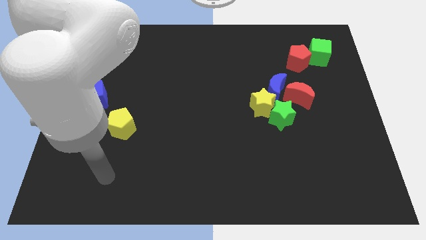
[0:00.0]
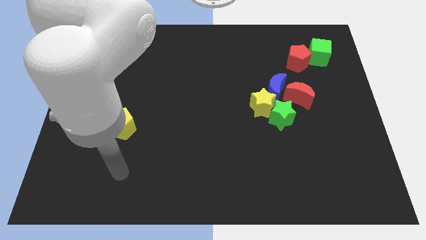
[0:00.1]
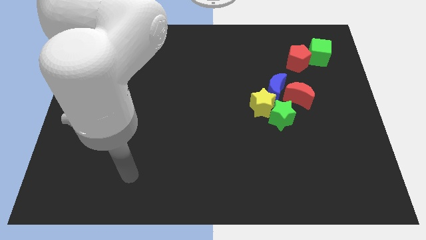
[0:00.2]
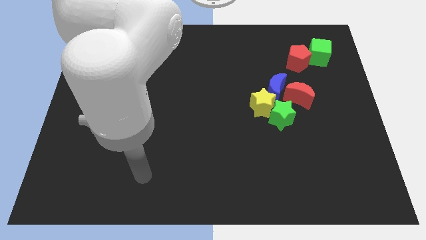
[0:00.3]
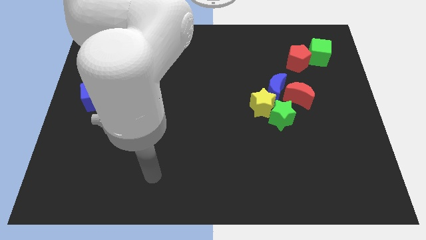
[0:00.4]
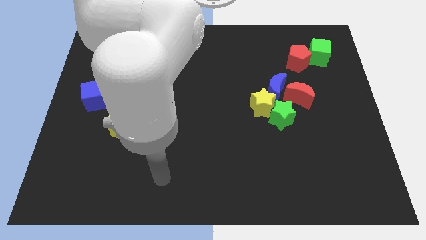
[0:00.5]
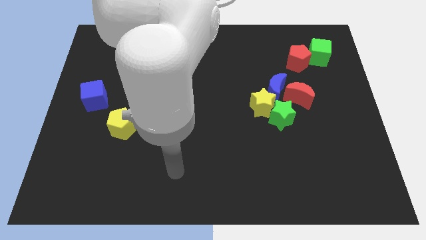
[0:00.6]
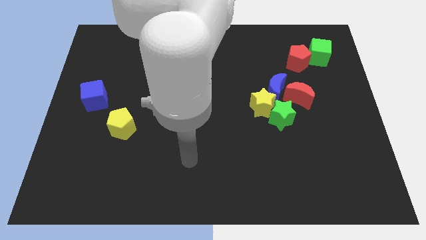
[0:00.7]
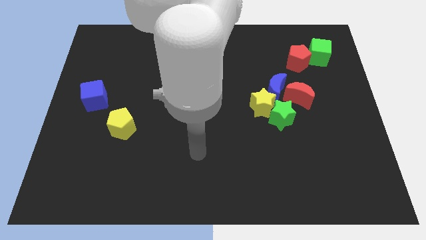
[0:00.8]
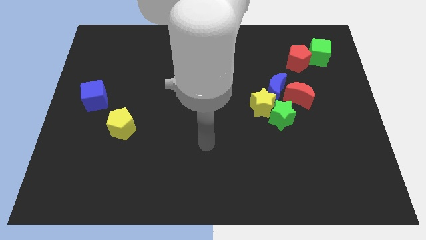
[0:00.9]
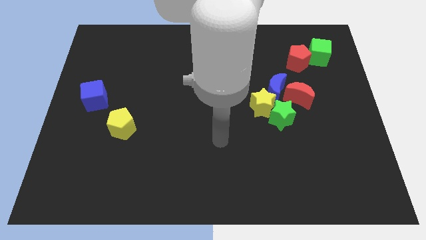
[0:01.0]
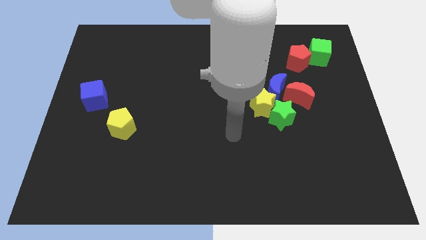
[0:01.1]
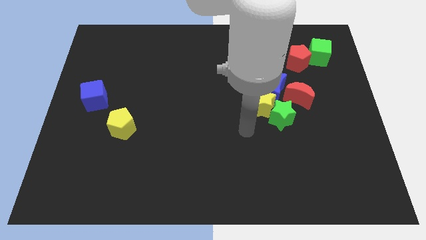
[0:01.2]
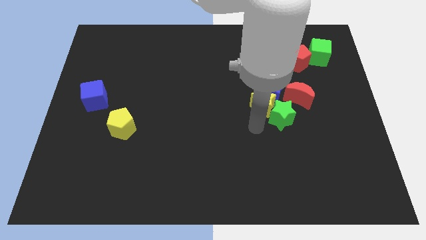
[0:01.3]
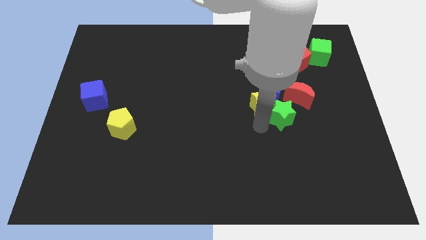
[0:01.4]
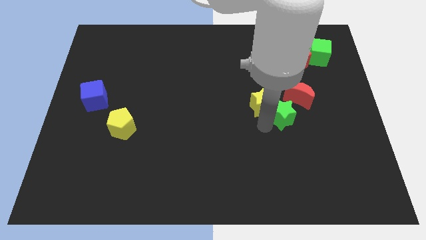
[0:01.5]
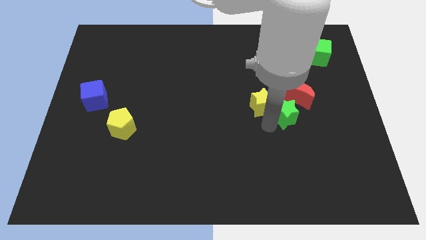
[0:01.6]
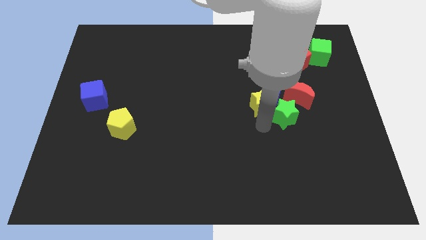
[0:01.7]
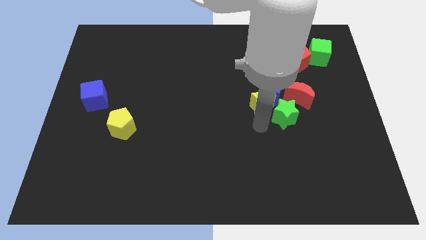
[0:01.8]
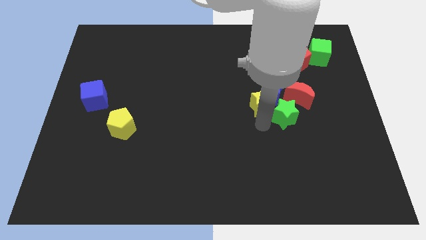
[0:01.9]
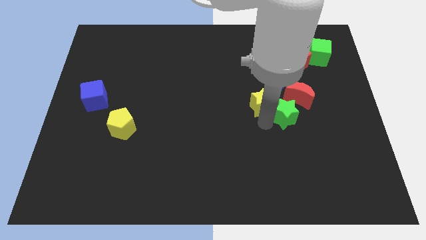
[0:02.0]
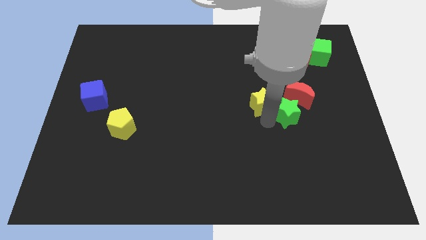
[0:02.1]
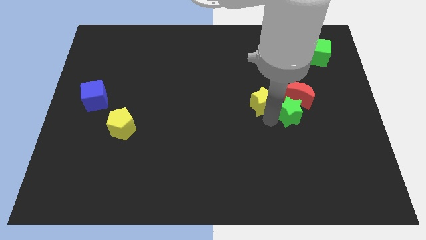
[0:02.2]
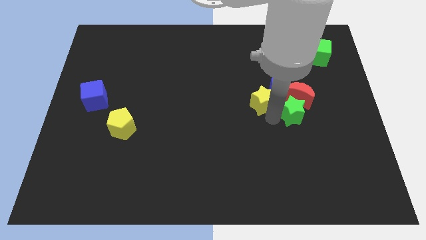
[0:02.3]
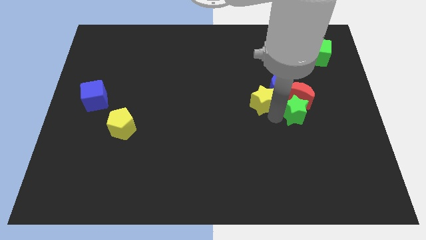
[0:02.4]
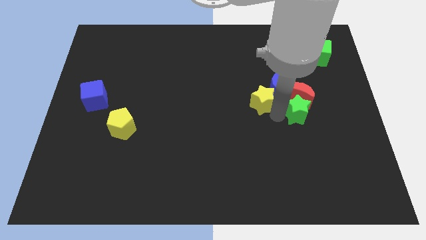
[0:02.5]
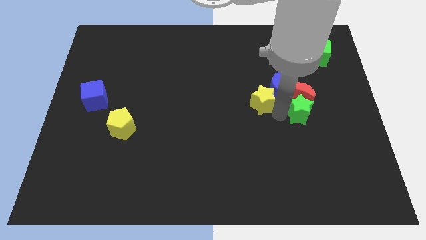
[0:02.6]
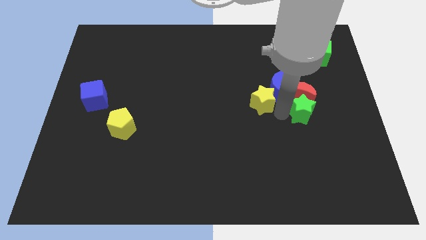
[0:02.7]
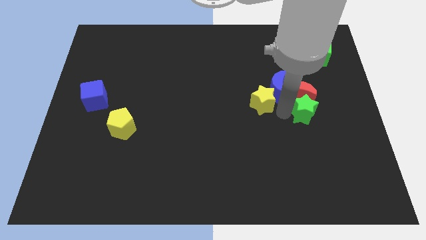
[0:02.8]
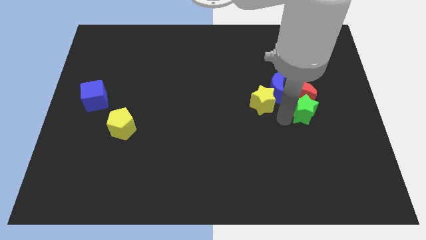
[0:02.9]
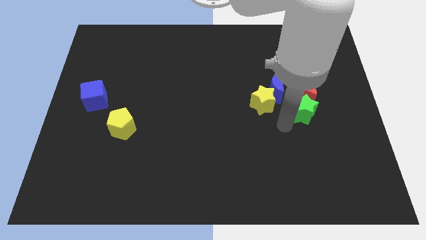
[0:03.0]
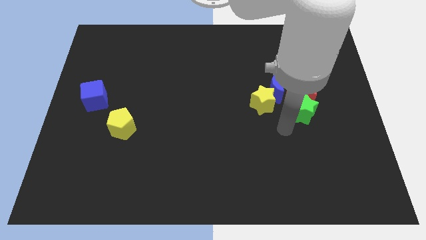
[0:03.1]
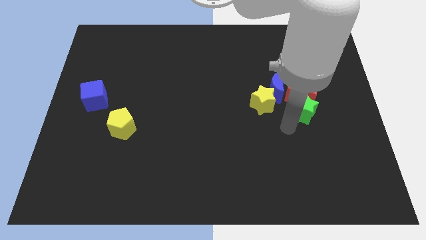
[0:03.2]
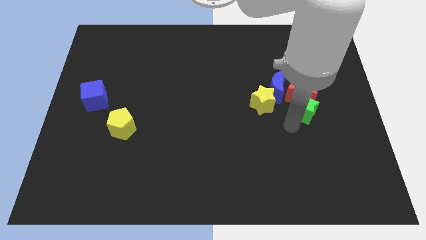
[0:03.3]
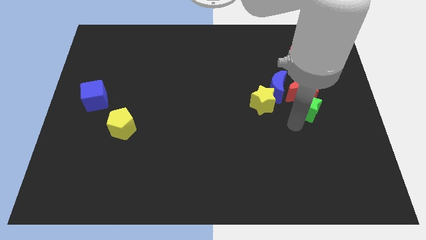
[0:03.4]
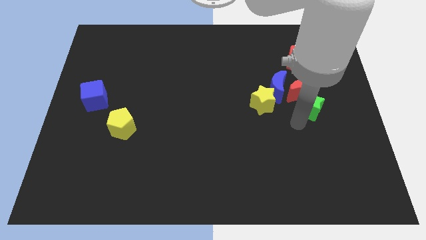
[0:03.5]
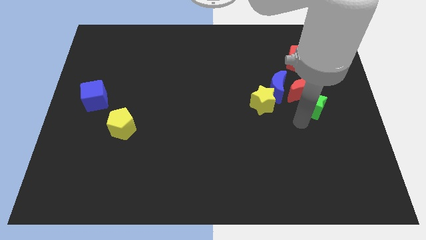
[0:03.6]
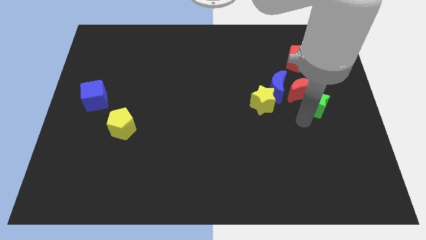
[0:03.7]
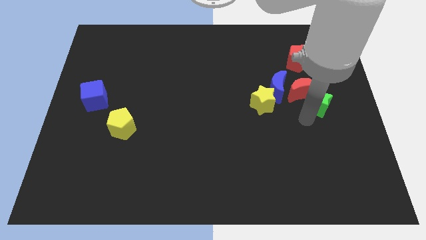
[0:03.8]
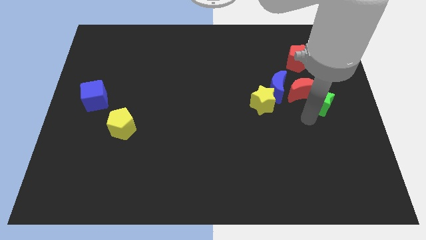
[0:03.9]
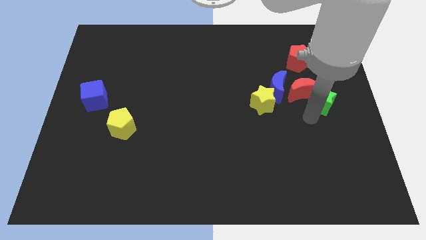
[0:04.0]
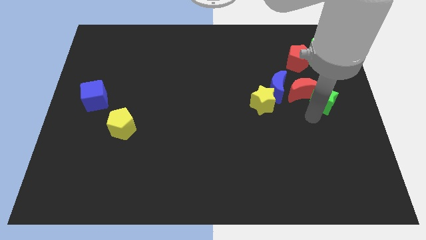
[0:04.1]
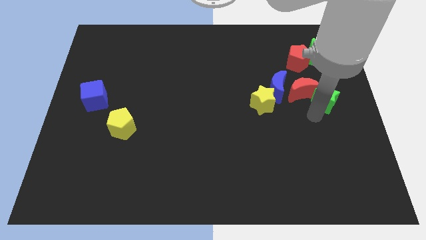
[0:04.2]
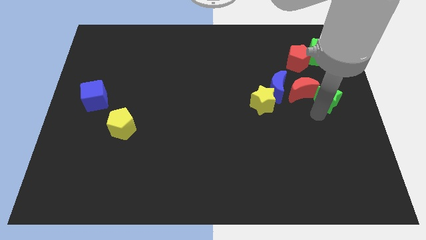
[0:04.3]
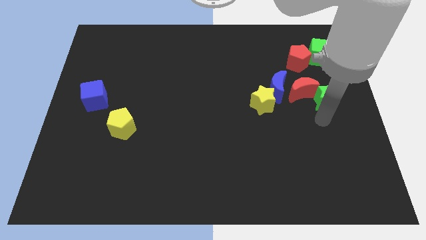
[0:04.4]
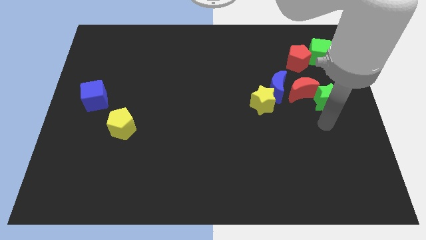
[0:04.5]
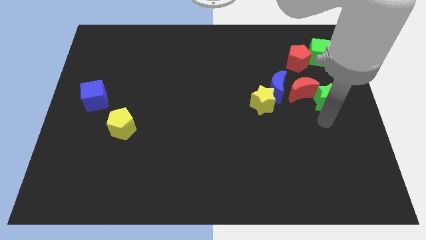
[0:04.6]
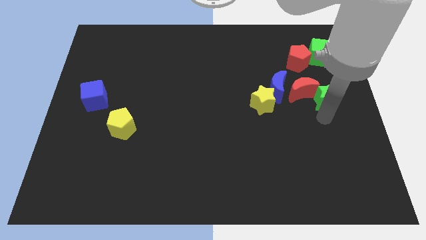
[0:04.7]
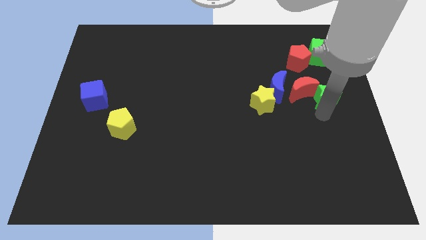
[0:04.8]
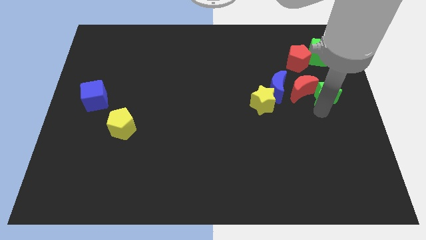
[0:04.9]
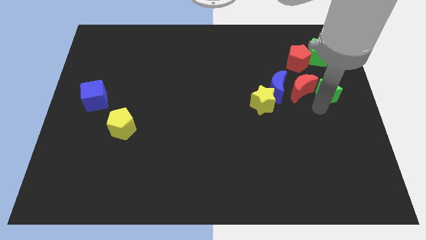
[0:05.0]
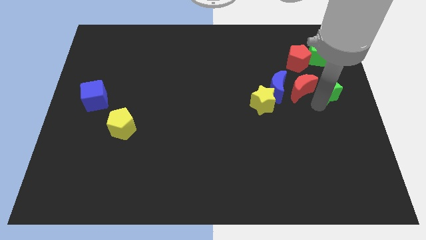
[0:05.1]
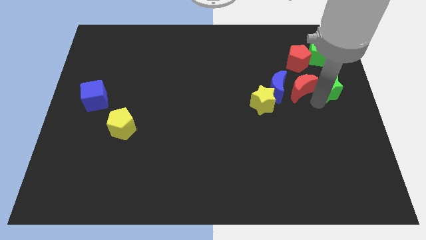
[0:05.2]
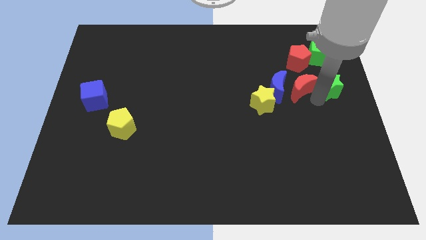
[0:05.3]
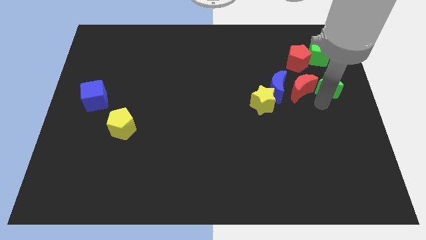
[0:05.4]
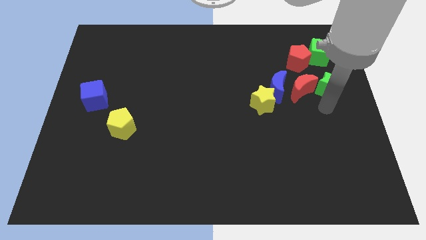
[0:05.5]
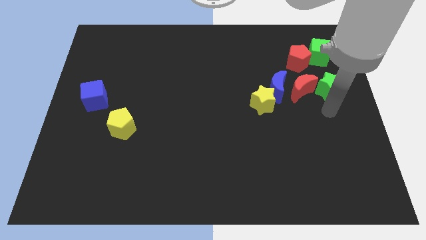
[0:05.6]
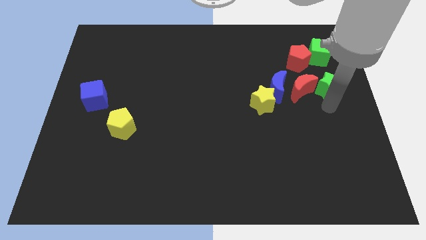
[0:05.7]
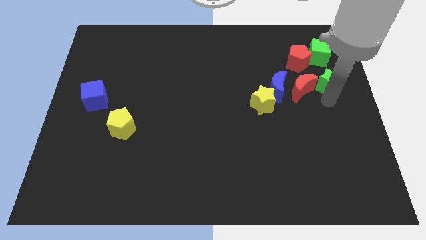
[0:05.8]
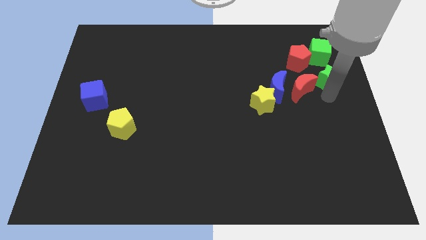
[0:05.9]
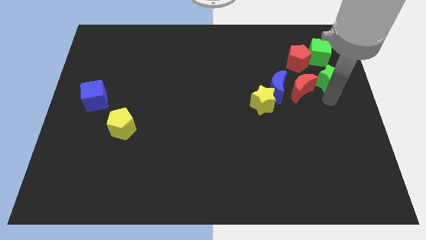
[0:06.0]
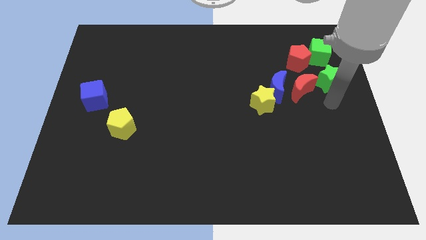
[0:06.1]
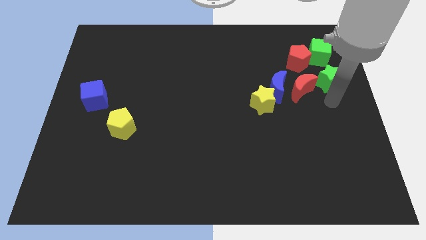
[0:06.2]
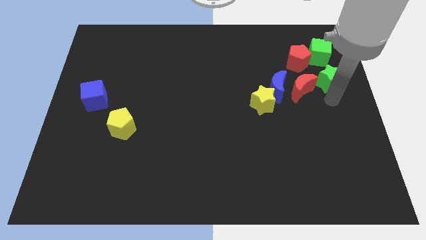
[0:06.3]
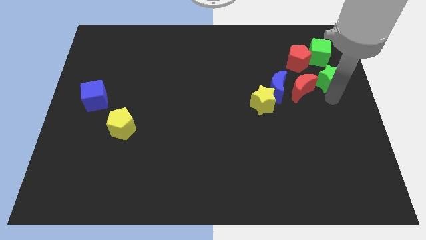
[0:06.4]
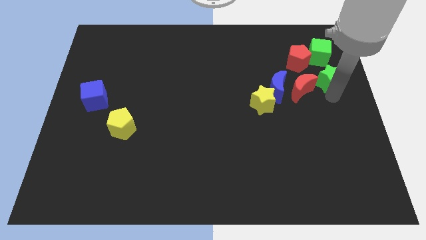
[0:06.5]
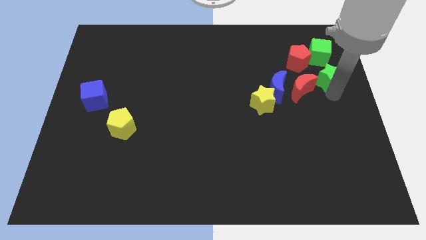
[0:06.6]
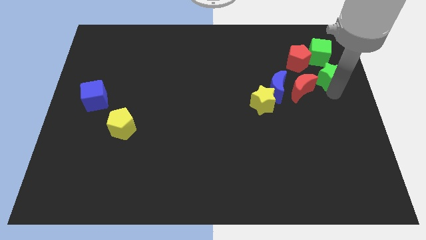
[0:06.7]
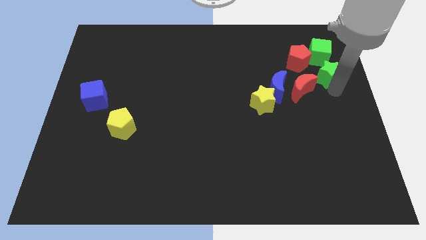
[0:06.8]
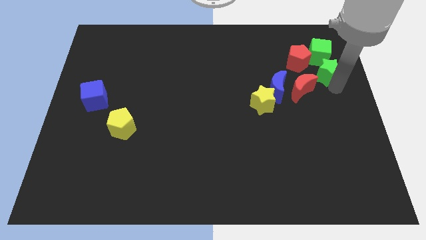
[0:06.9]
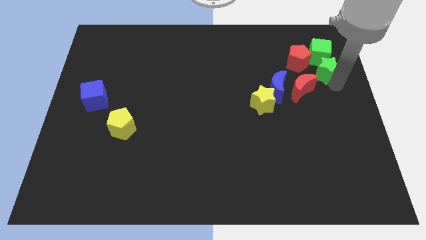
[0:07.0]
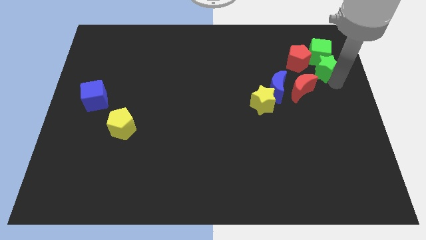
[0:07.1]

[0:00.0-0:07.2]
slide the green star next to the green cube
